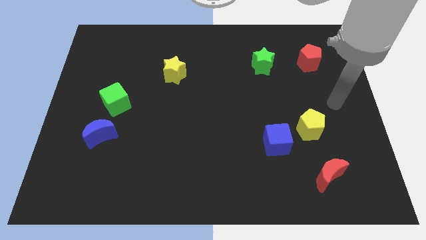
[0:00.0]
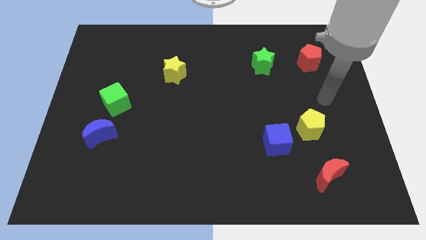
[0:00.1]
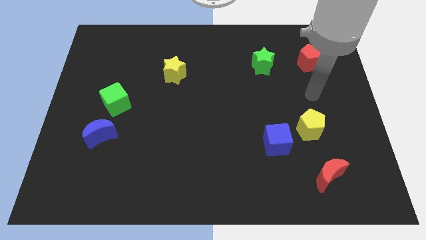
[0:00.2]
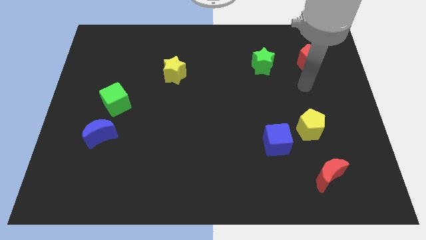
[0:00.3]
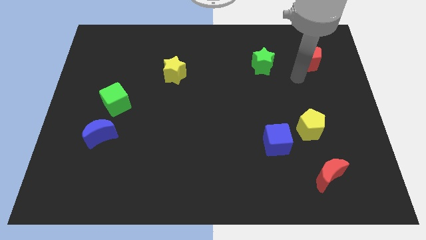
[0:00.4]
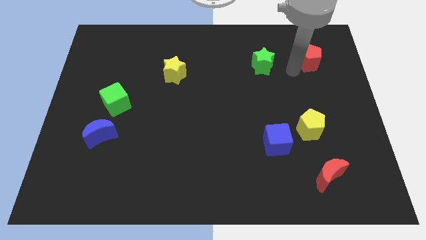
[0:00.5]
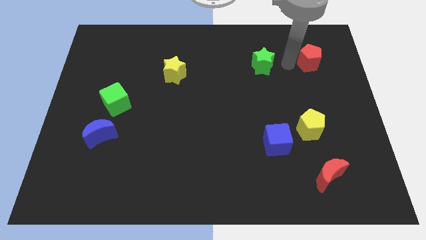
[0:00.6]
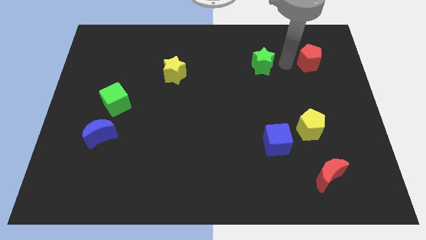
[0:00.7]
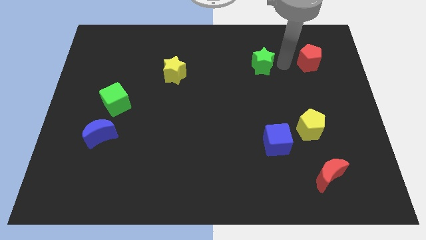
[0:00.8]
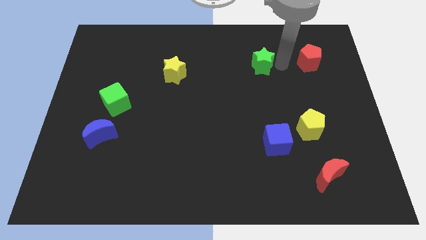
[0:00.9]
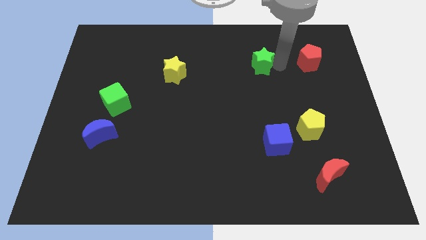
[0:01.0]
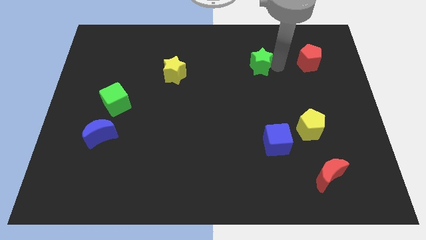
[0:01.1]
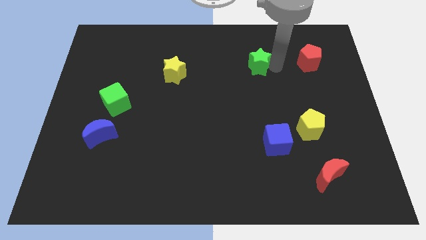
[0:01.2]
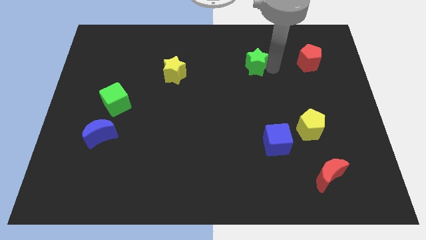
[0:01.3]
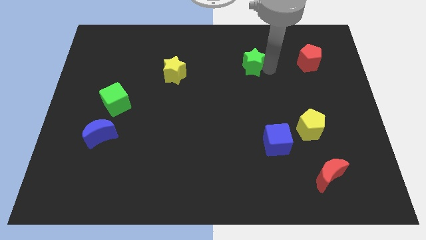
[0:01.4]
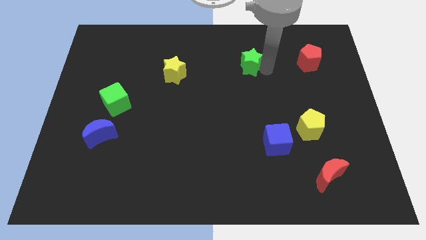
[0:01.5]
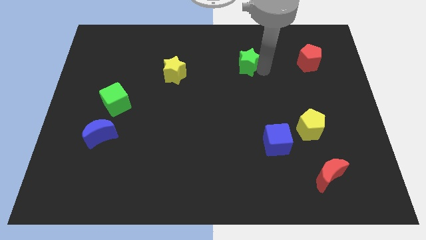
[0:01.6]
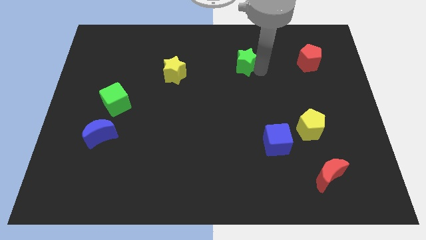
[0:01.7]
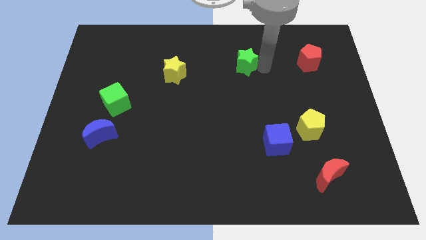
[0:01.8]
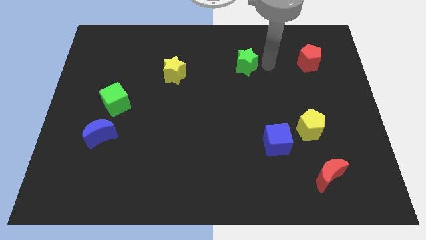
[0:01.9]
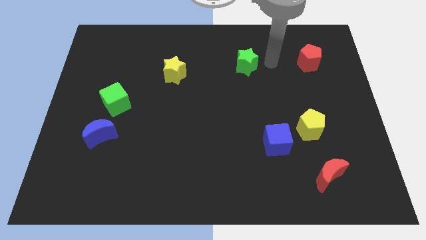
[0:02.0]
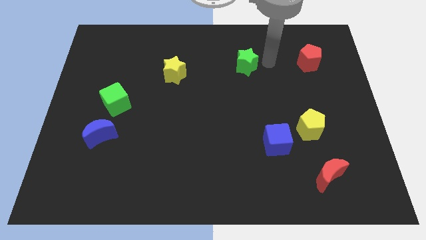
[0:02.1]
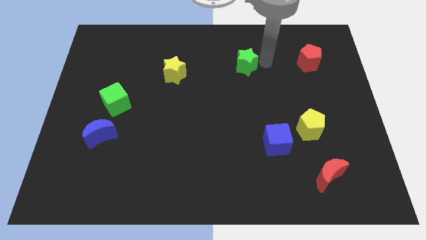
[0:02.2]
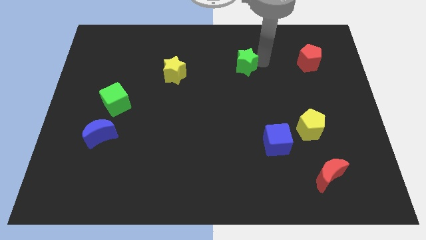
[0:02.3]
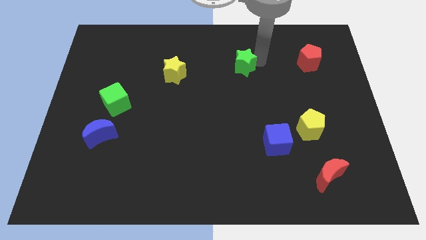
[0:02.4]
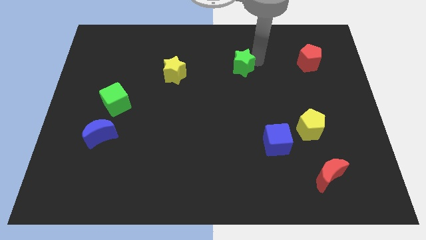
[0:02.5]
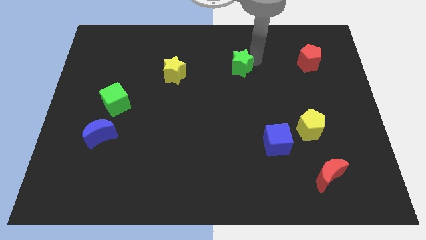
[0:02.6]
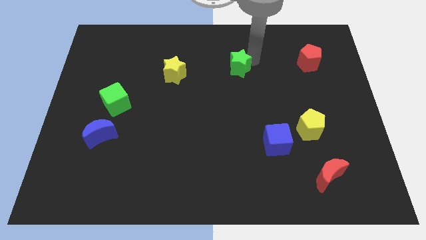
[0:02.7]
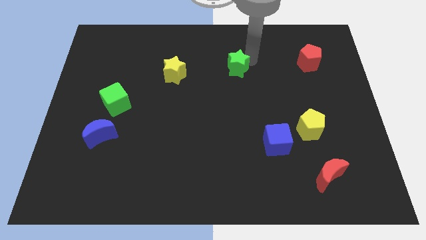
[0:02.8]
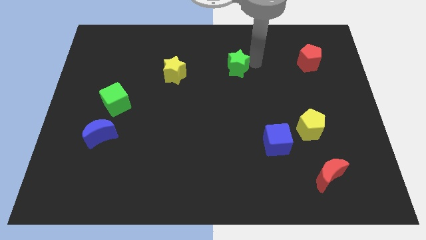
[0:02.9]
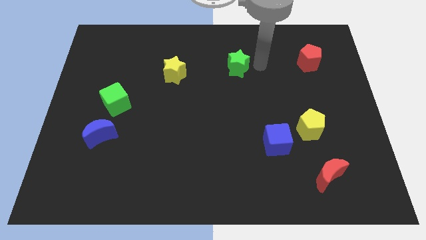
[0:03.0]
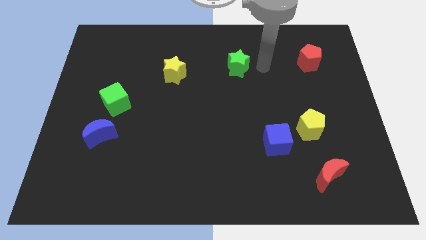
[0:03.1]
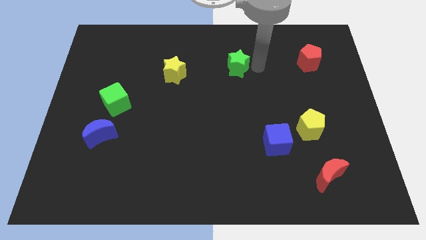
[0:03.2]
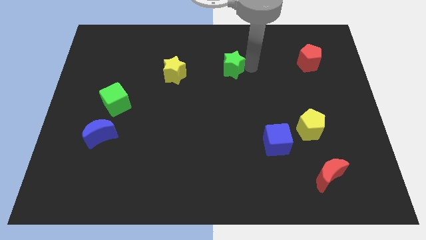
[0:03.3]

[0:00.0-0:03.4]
push the green star a little to the left

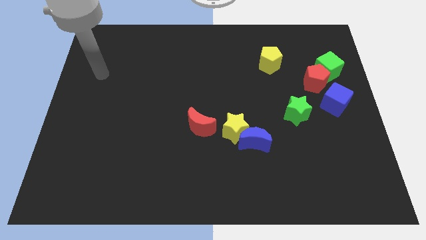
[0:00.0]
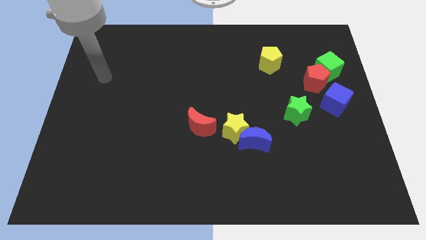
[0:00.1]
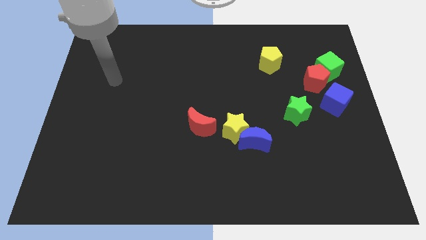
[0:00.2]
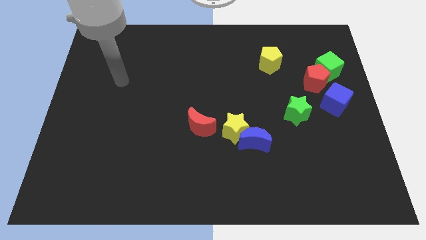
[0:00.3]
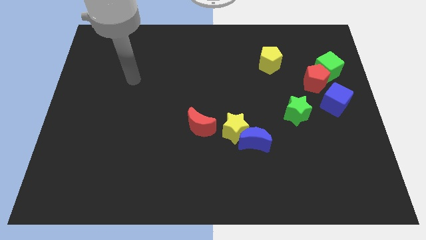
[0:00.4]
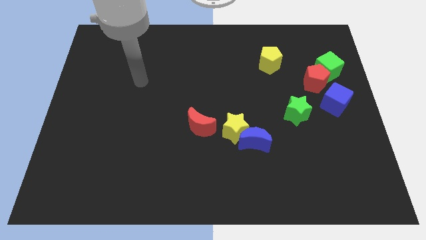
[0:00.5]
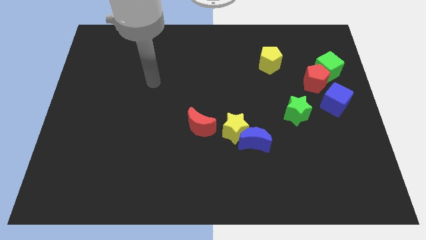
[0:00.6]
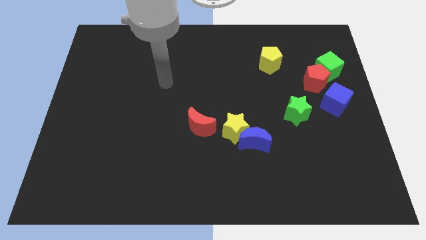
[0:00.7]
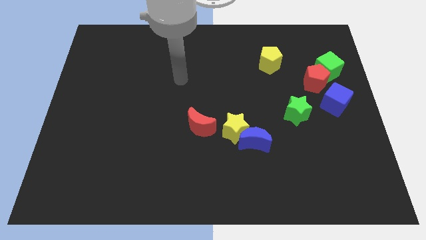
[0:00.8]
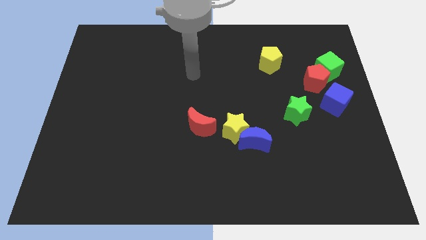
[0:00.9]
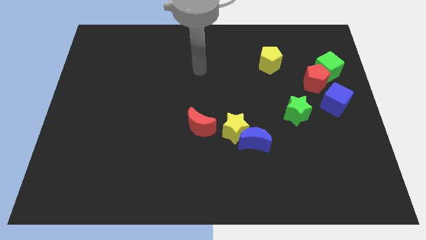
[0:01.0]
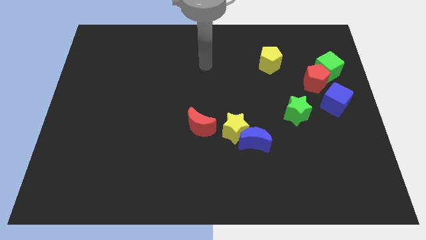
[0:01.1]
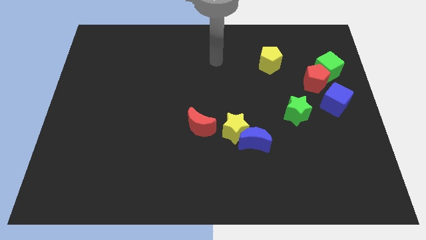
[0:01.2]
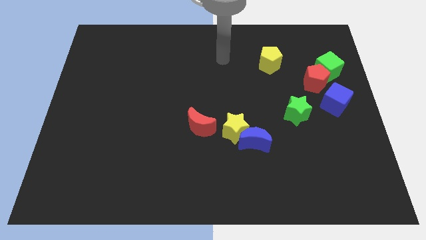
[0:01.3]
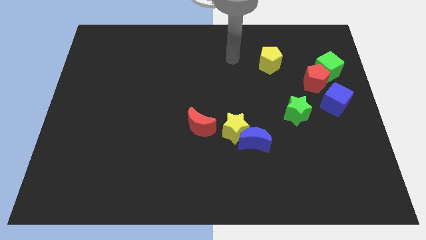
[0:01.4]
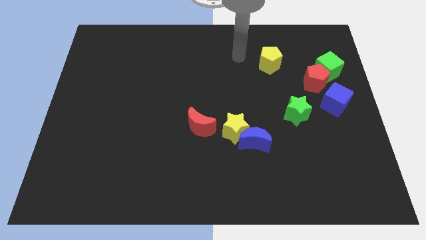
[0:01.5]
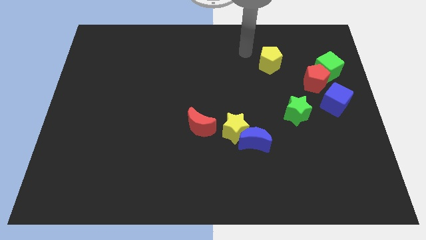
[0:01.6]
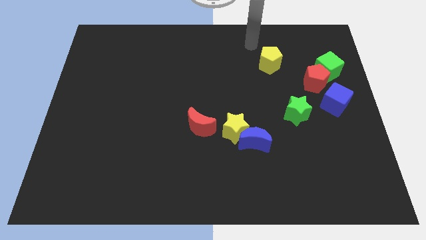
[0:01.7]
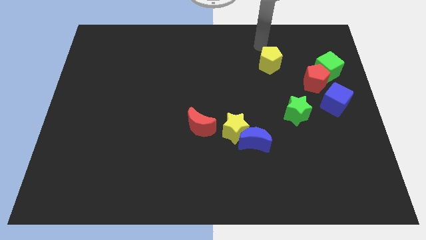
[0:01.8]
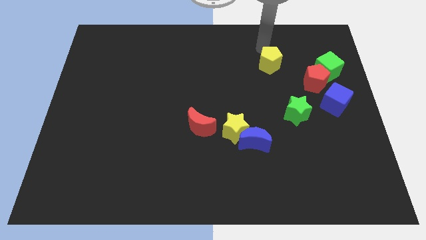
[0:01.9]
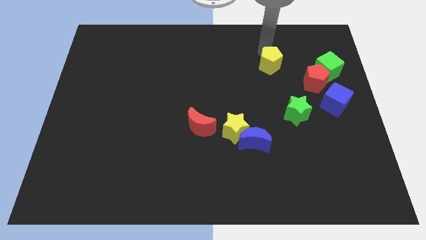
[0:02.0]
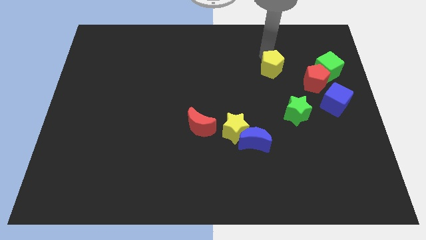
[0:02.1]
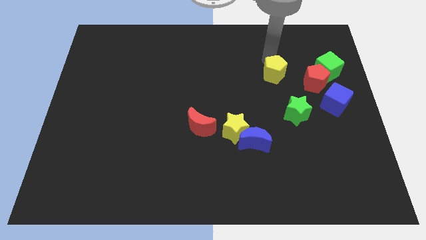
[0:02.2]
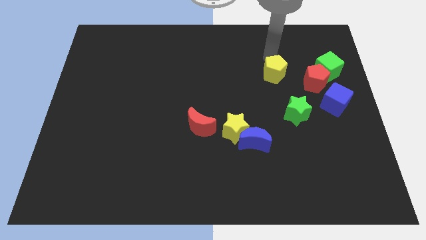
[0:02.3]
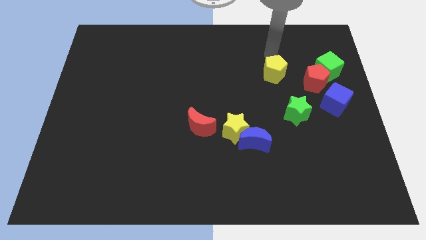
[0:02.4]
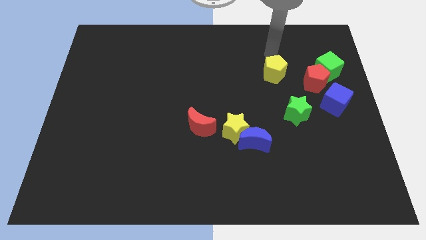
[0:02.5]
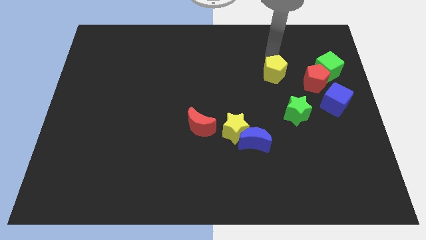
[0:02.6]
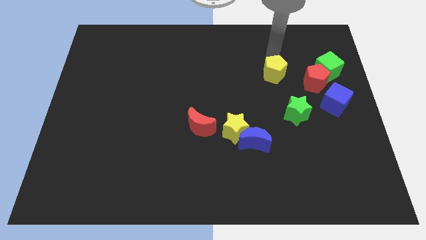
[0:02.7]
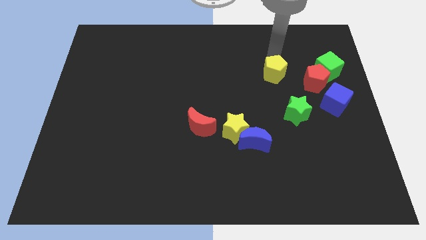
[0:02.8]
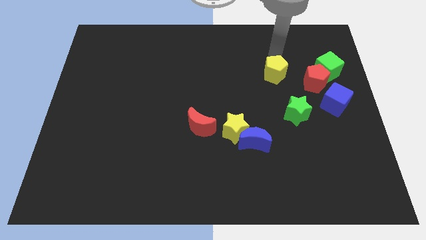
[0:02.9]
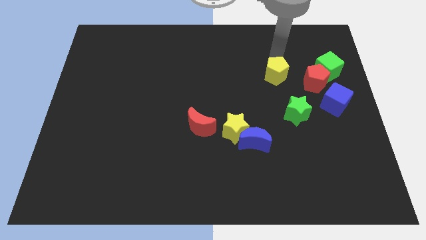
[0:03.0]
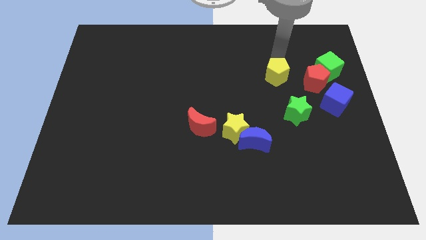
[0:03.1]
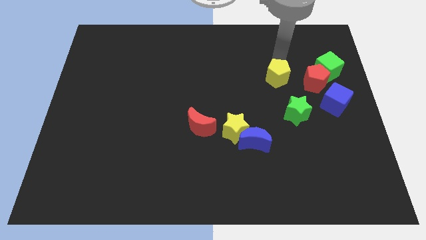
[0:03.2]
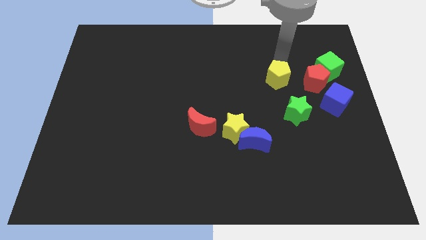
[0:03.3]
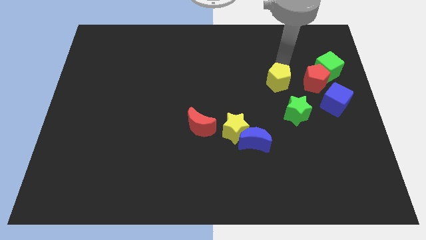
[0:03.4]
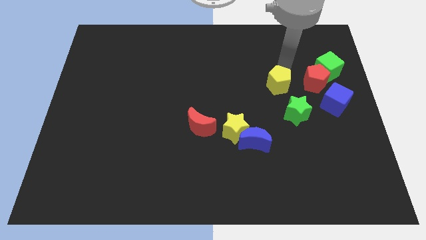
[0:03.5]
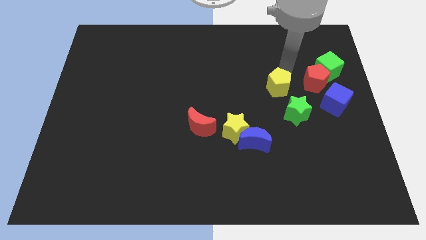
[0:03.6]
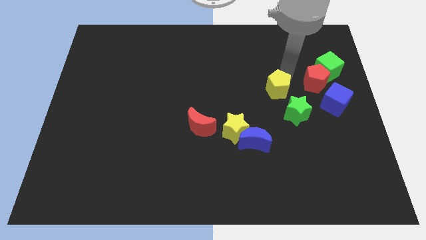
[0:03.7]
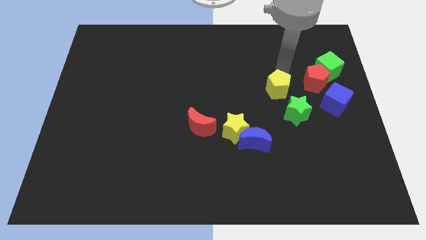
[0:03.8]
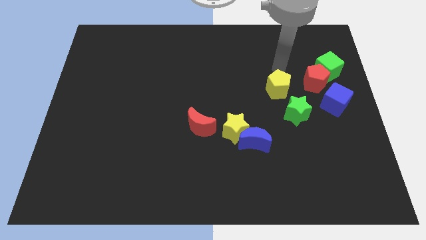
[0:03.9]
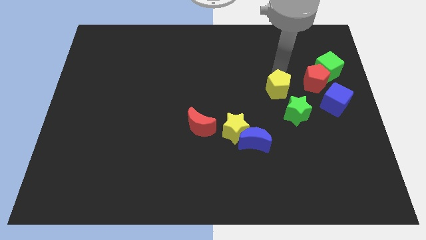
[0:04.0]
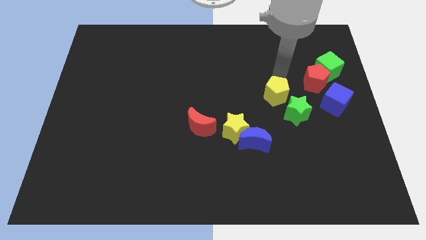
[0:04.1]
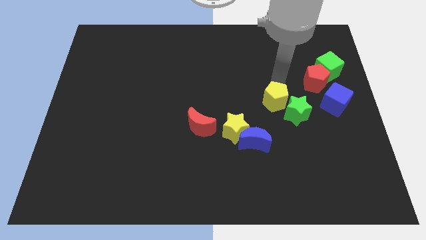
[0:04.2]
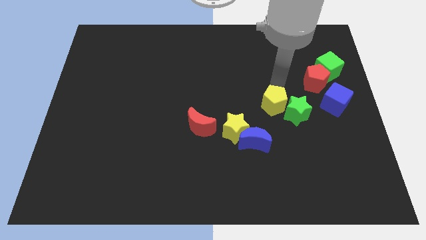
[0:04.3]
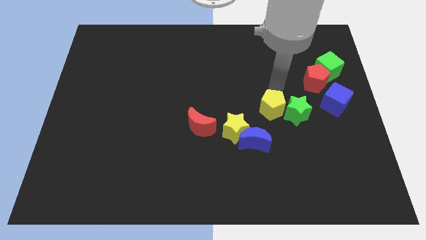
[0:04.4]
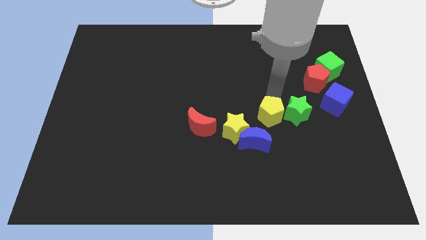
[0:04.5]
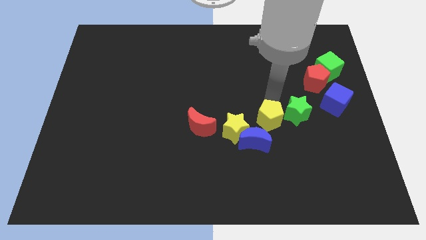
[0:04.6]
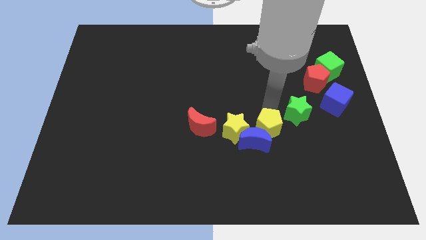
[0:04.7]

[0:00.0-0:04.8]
slide the yellow pentagon downwards

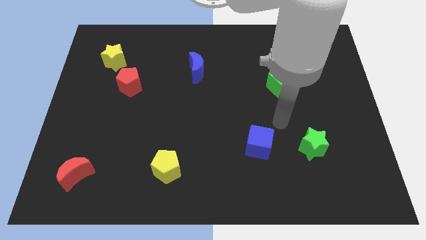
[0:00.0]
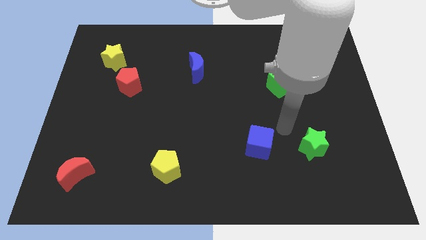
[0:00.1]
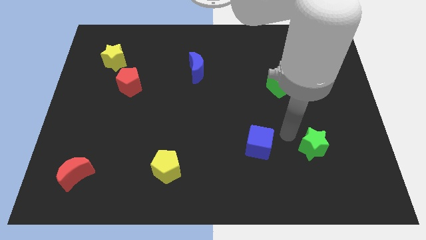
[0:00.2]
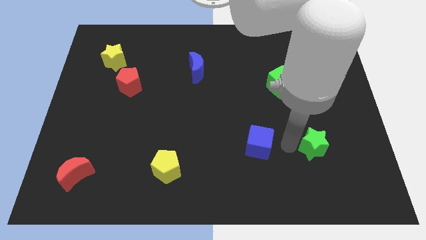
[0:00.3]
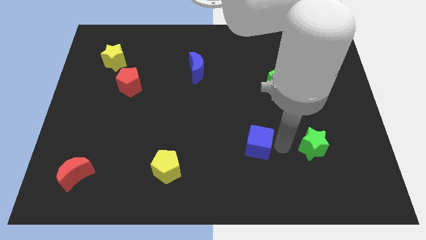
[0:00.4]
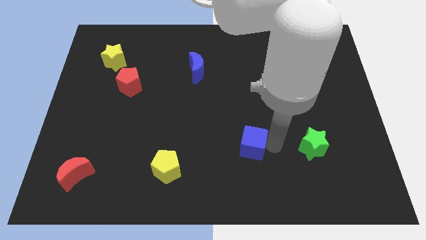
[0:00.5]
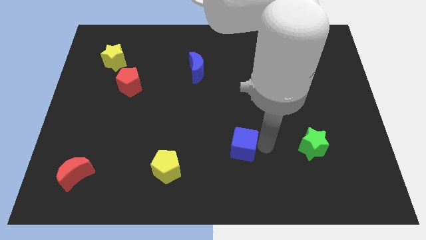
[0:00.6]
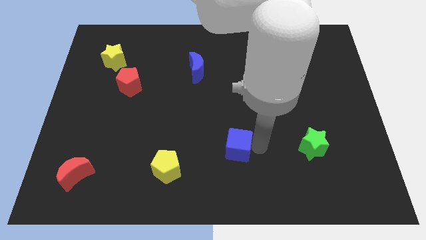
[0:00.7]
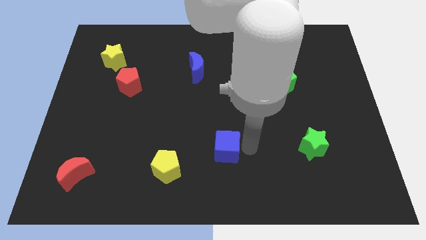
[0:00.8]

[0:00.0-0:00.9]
push the blue cube somewhat to the left
